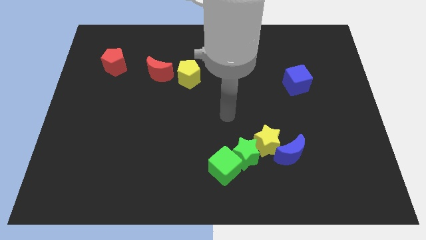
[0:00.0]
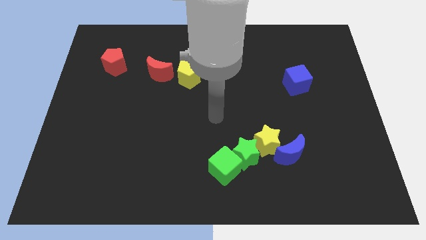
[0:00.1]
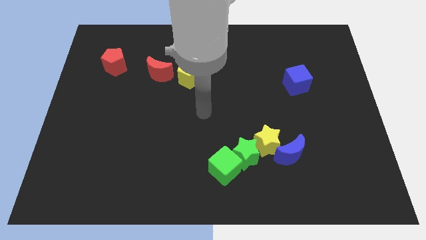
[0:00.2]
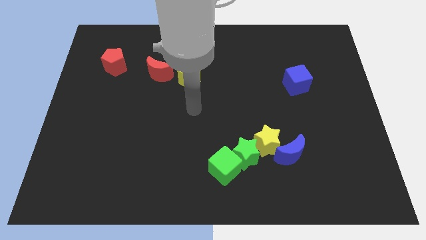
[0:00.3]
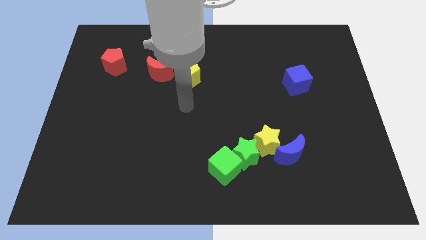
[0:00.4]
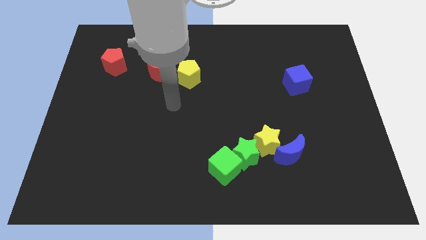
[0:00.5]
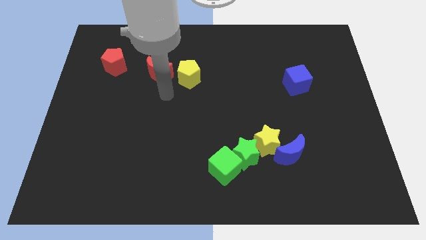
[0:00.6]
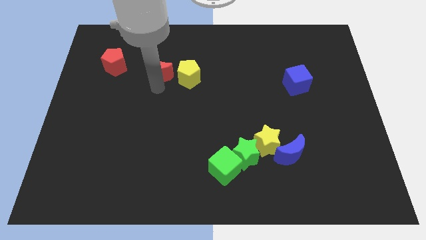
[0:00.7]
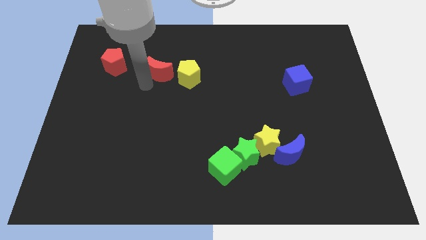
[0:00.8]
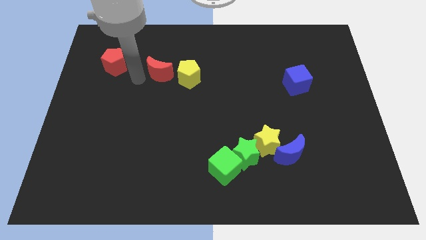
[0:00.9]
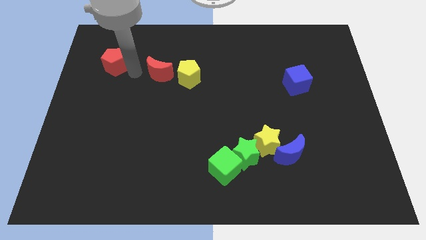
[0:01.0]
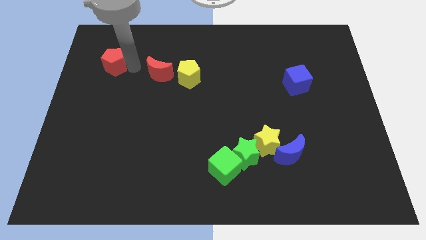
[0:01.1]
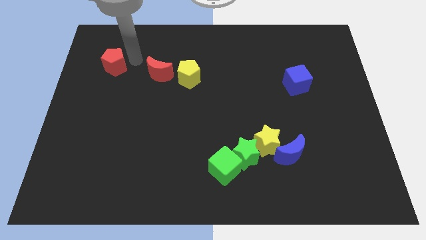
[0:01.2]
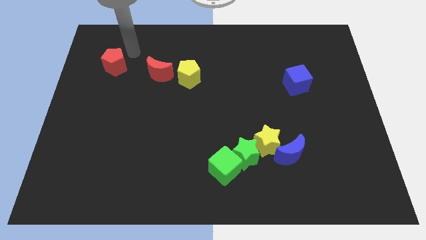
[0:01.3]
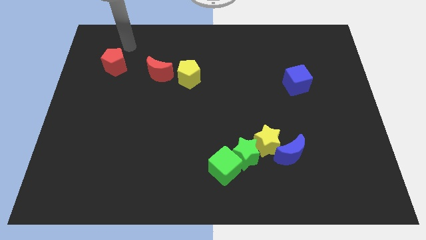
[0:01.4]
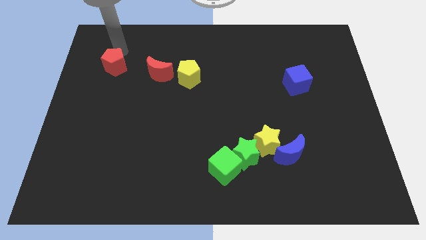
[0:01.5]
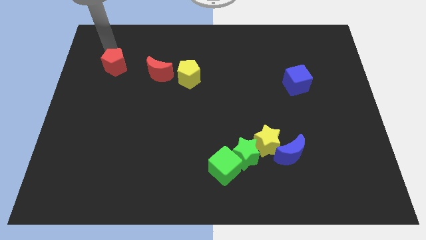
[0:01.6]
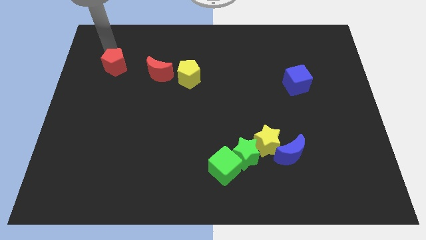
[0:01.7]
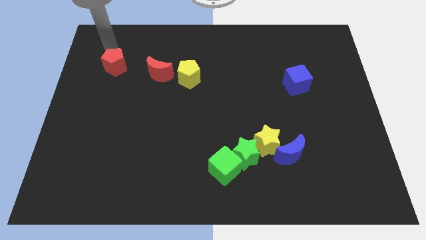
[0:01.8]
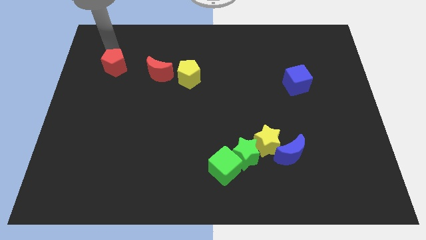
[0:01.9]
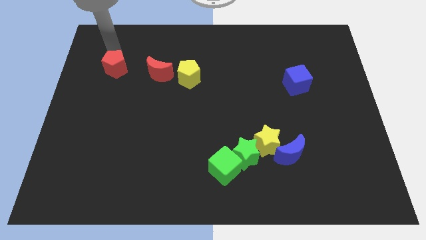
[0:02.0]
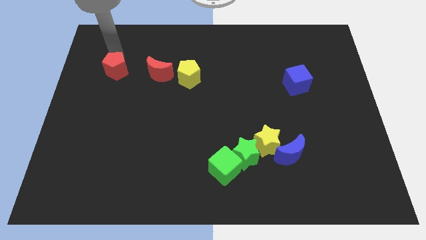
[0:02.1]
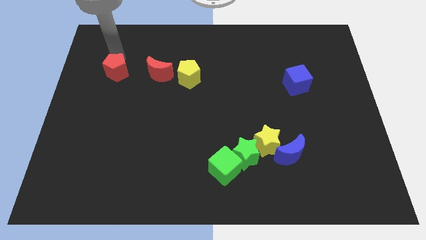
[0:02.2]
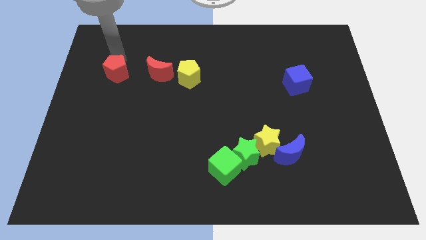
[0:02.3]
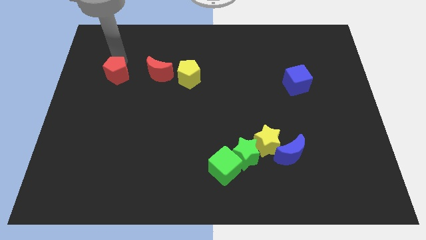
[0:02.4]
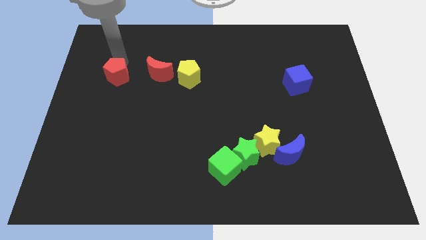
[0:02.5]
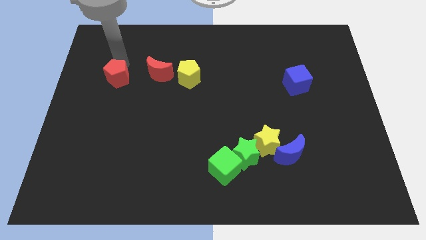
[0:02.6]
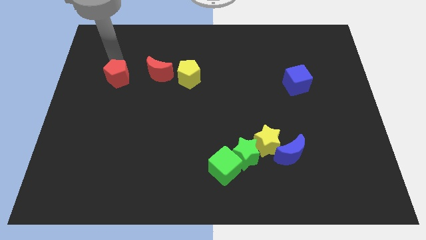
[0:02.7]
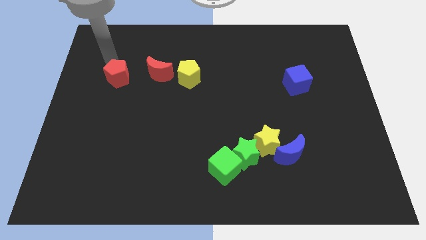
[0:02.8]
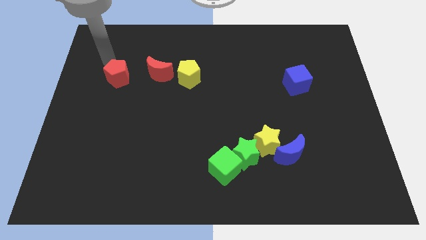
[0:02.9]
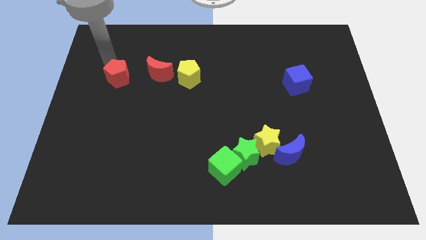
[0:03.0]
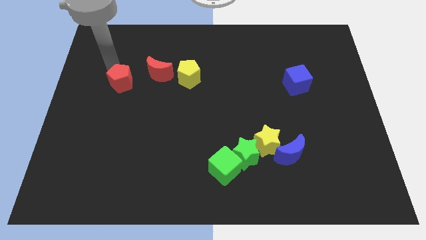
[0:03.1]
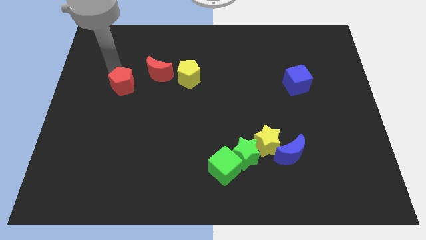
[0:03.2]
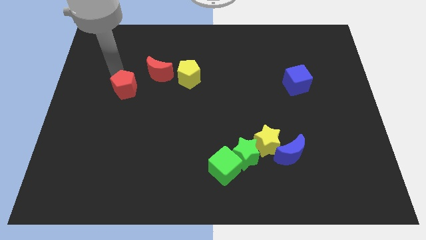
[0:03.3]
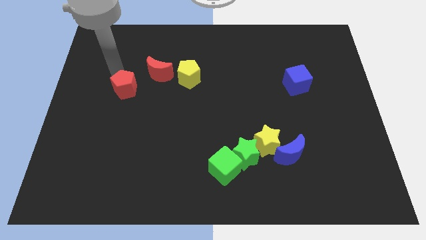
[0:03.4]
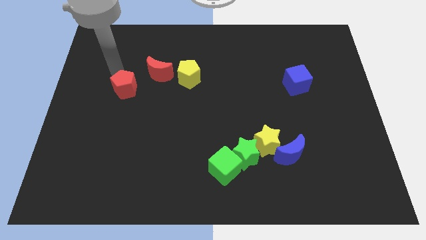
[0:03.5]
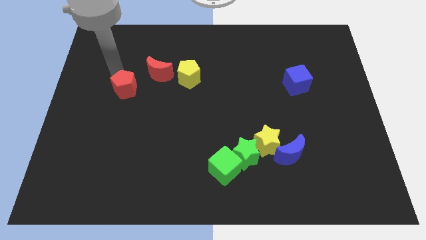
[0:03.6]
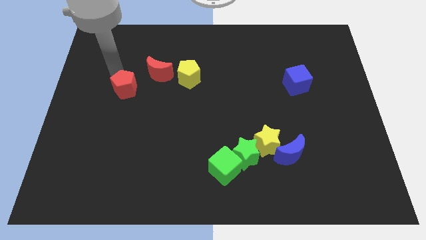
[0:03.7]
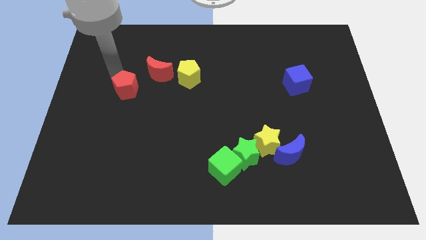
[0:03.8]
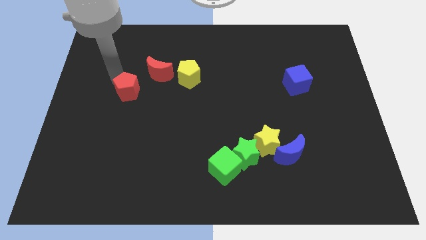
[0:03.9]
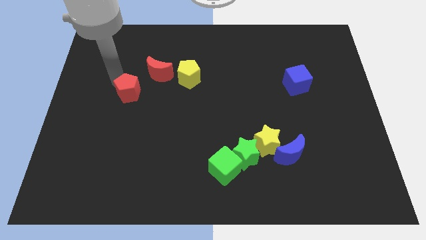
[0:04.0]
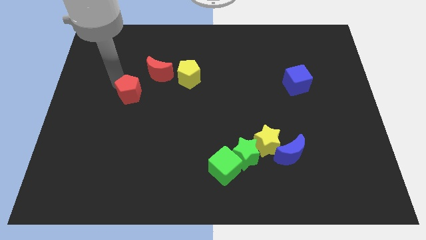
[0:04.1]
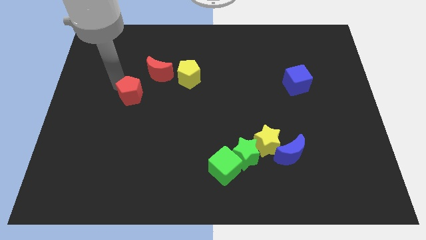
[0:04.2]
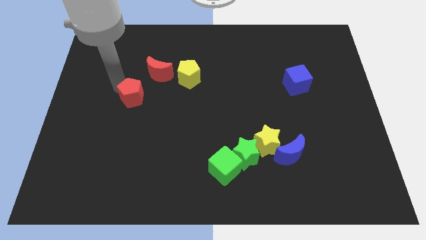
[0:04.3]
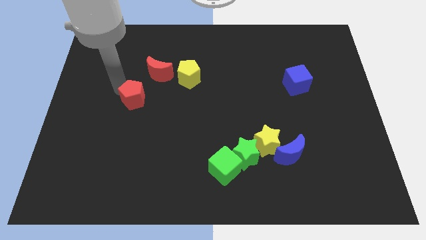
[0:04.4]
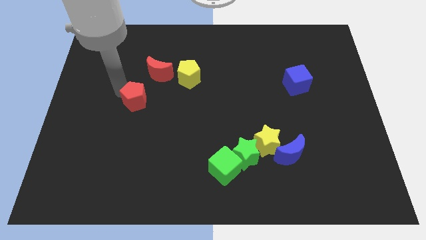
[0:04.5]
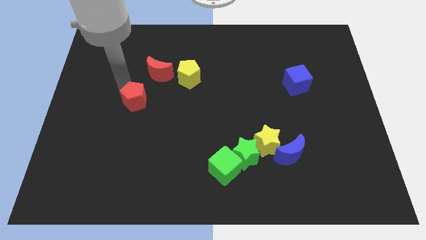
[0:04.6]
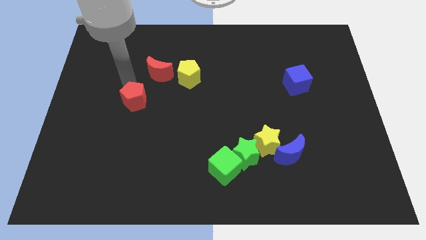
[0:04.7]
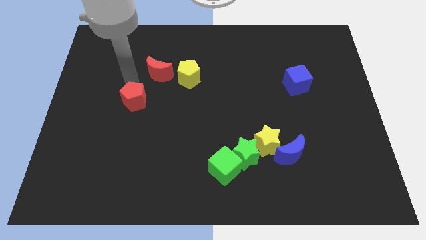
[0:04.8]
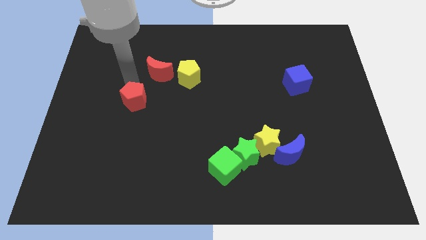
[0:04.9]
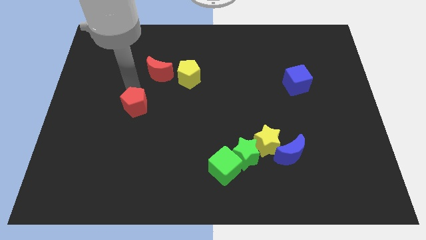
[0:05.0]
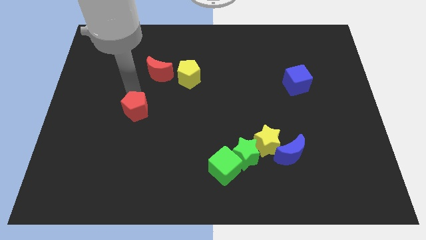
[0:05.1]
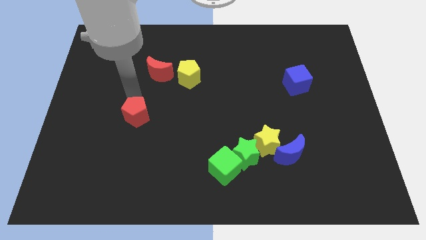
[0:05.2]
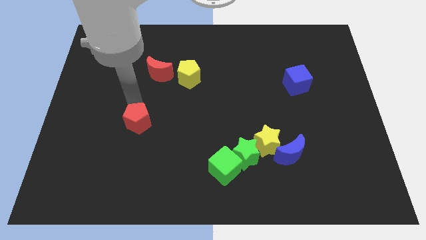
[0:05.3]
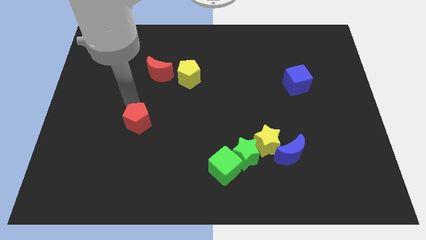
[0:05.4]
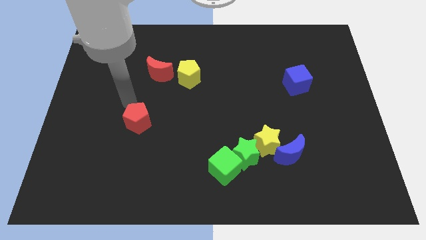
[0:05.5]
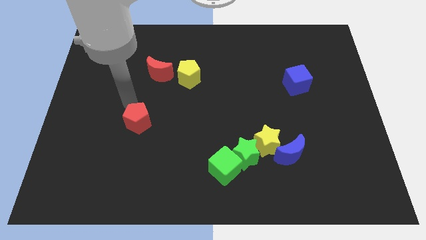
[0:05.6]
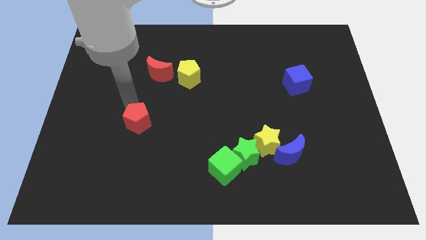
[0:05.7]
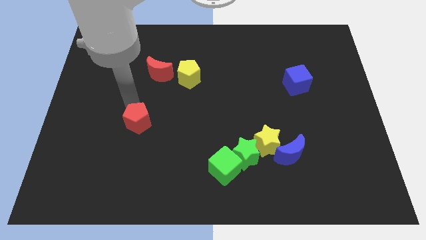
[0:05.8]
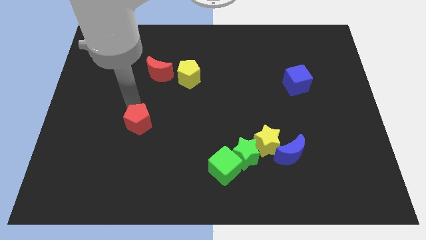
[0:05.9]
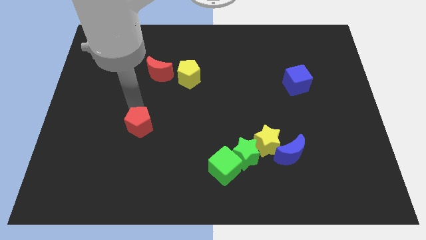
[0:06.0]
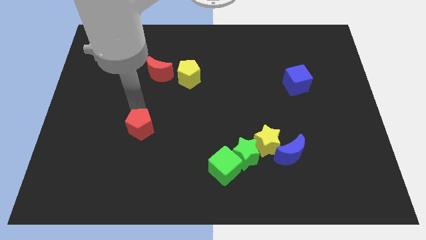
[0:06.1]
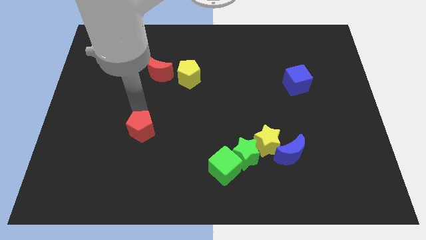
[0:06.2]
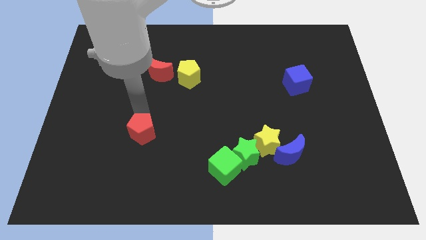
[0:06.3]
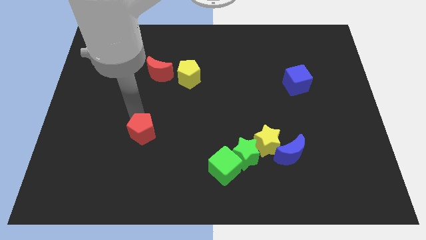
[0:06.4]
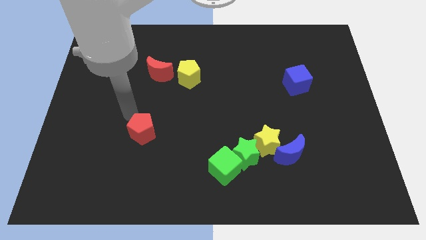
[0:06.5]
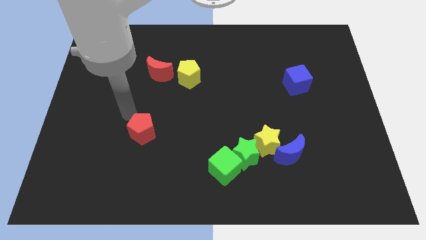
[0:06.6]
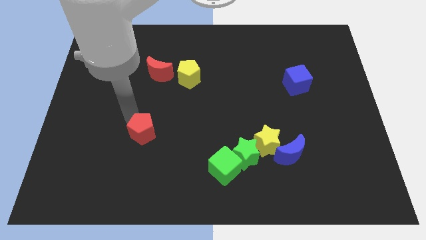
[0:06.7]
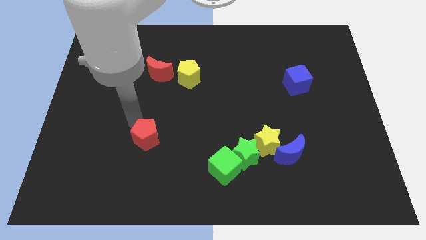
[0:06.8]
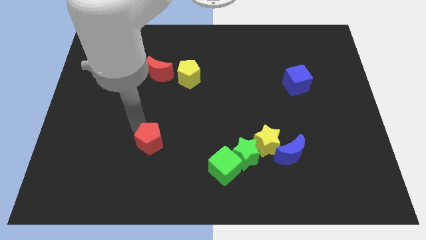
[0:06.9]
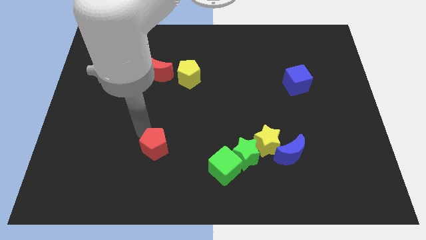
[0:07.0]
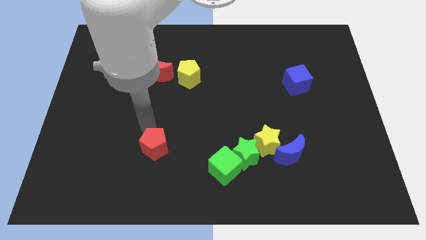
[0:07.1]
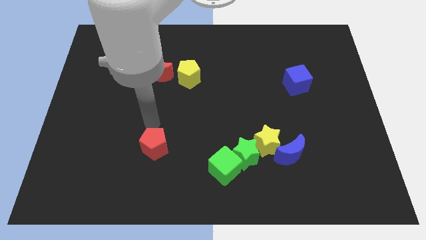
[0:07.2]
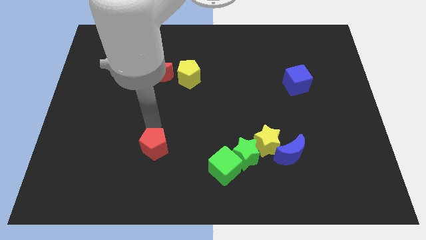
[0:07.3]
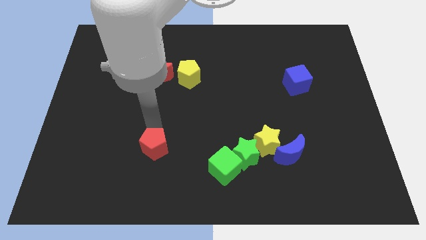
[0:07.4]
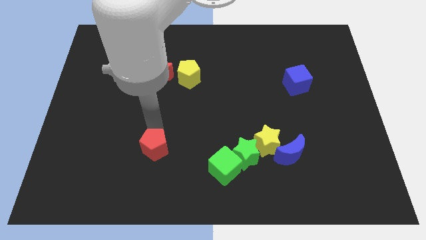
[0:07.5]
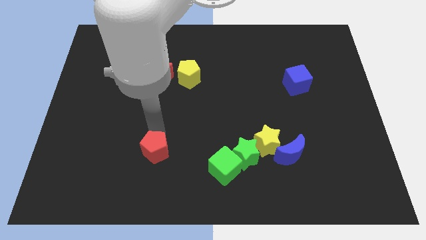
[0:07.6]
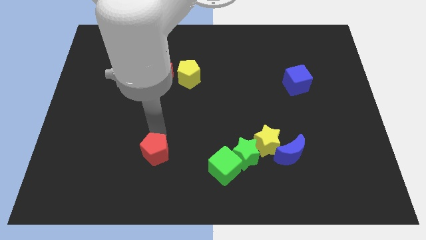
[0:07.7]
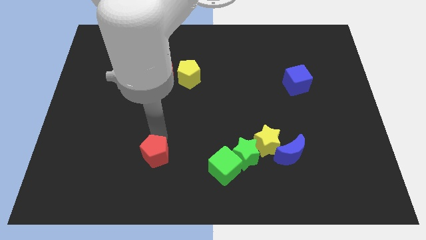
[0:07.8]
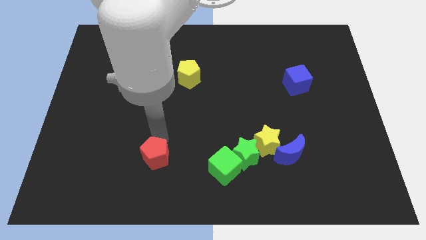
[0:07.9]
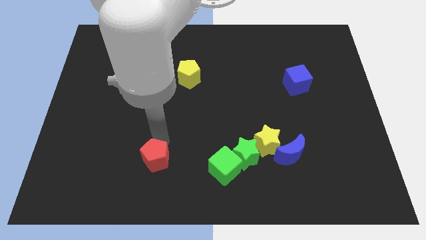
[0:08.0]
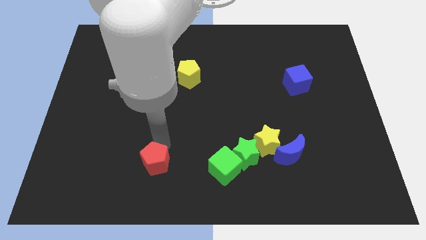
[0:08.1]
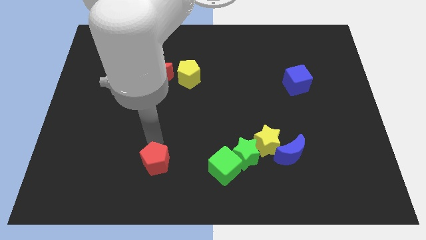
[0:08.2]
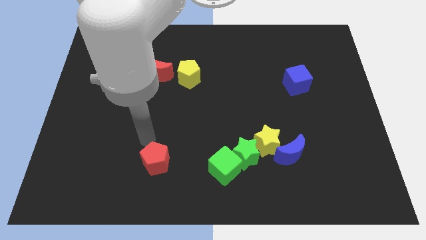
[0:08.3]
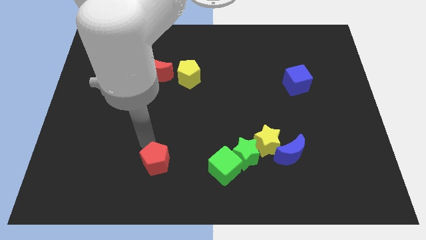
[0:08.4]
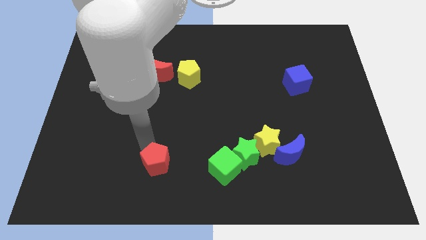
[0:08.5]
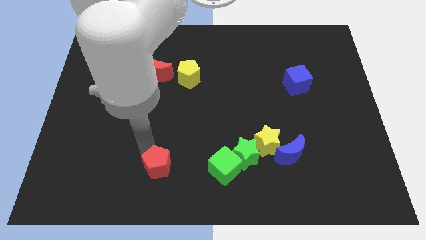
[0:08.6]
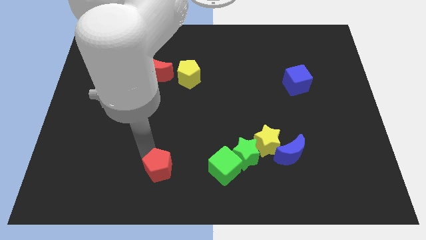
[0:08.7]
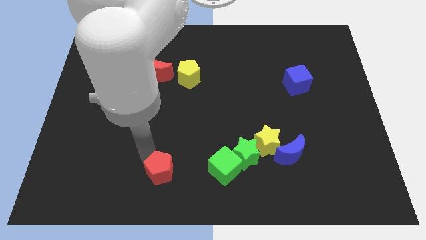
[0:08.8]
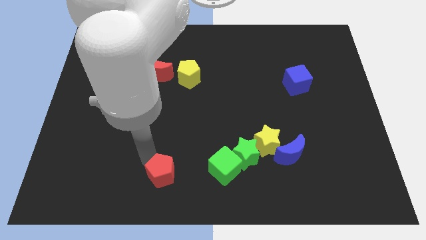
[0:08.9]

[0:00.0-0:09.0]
move the red pentagon to the bottom side
